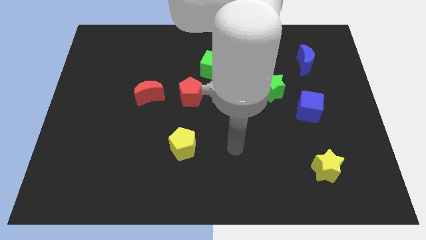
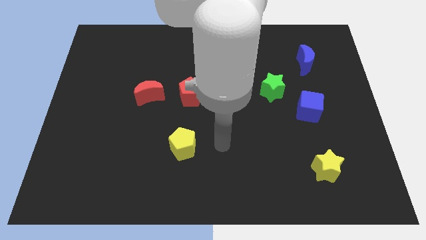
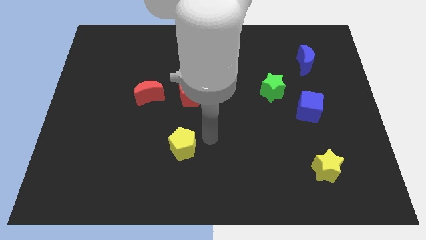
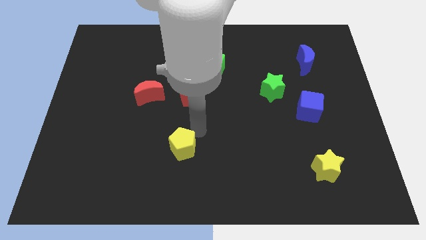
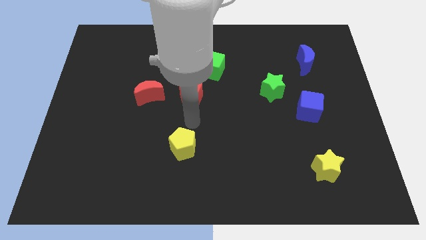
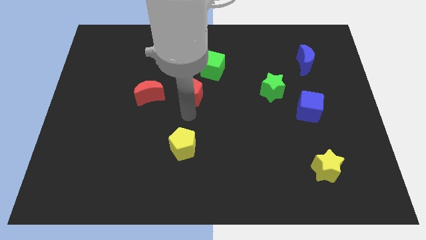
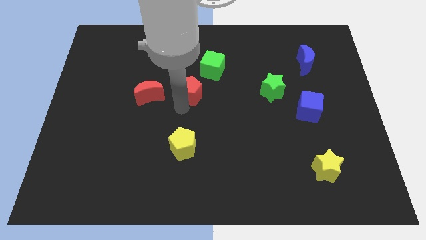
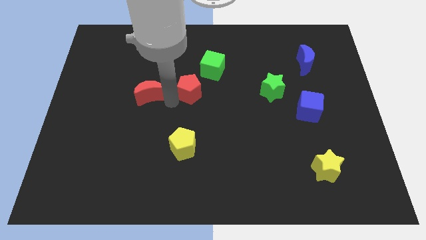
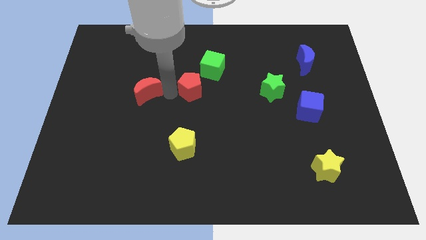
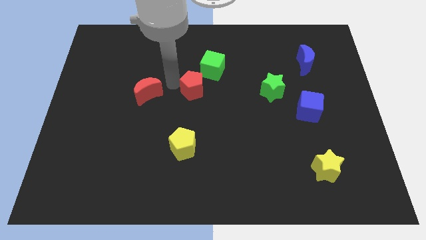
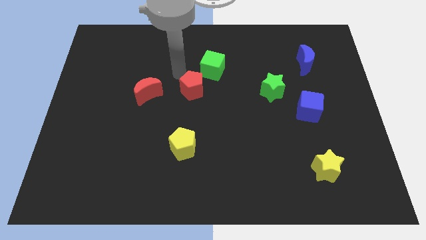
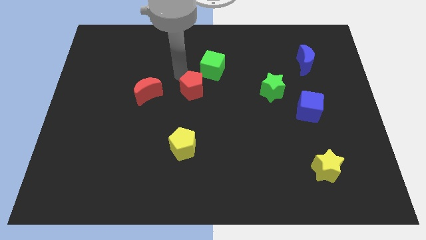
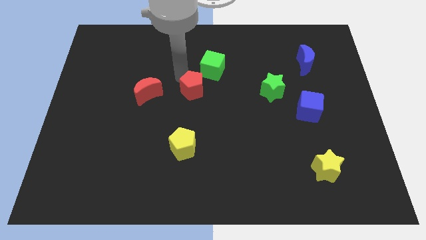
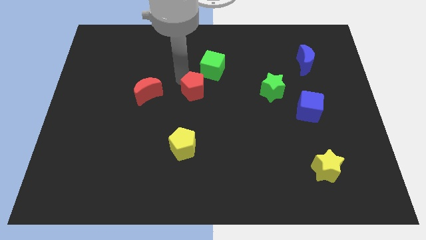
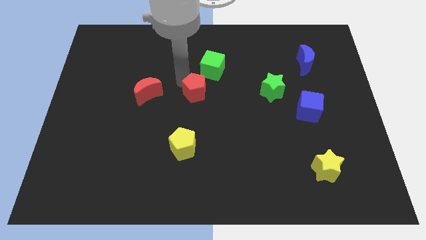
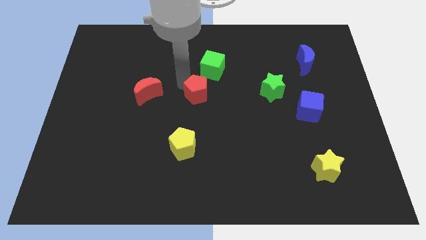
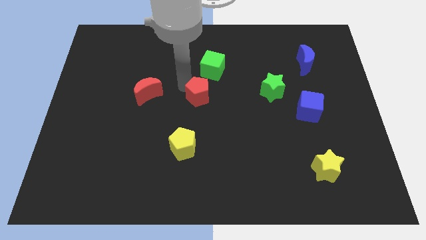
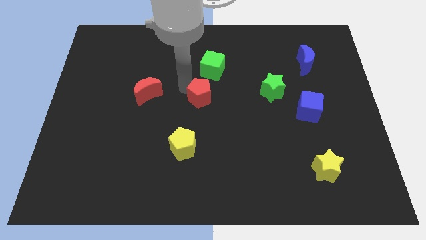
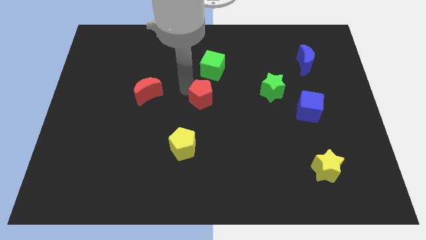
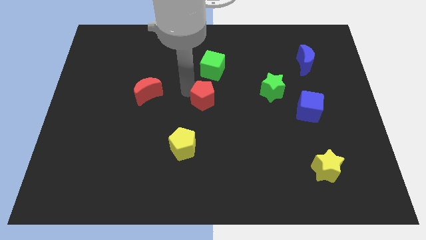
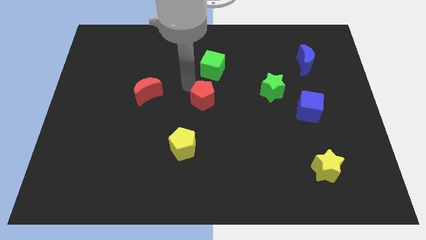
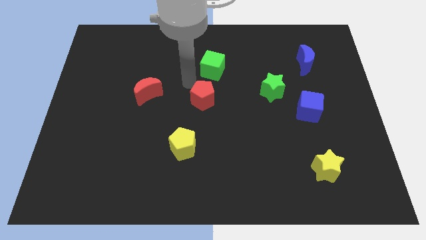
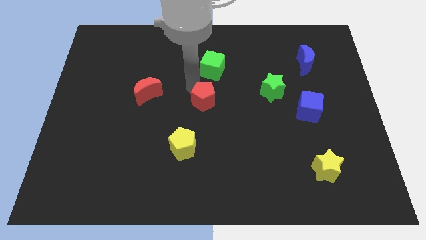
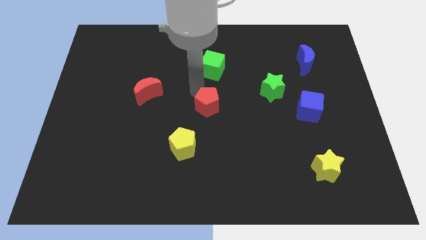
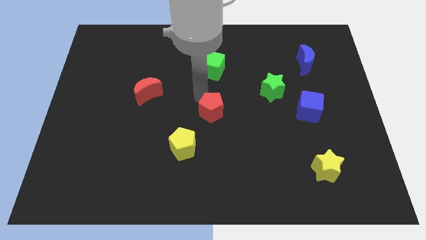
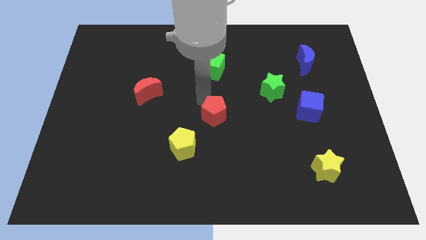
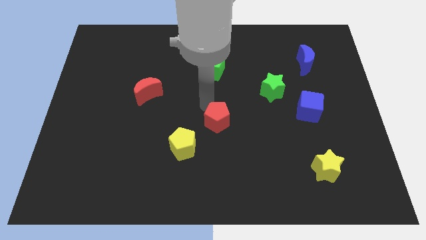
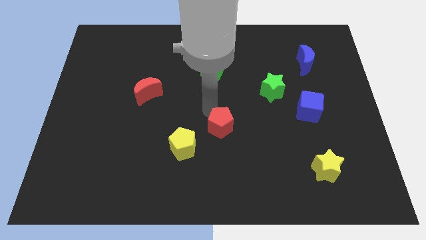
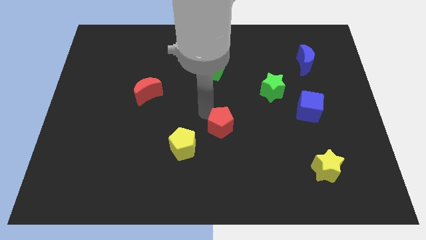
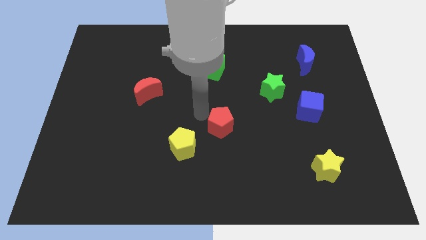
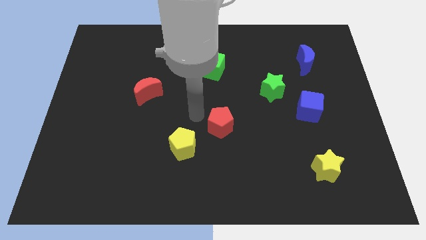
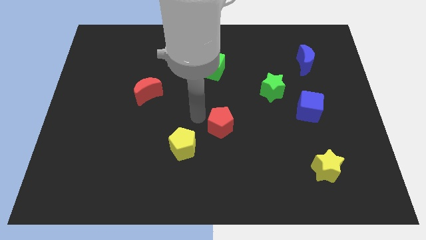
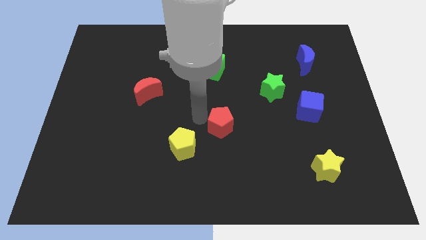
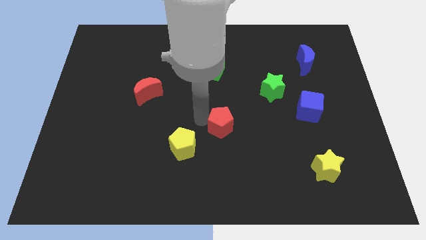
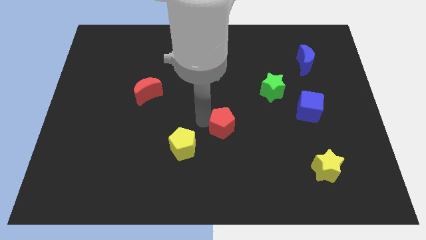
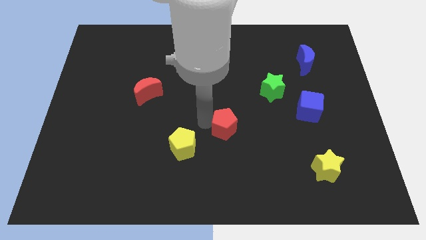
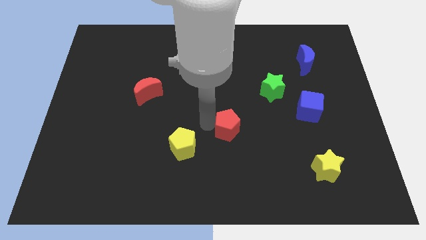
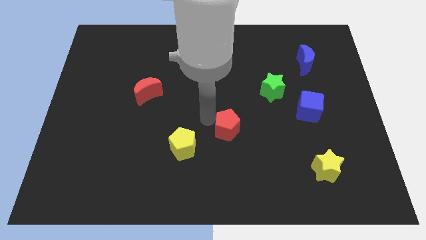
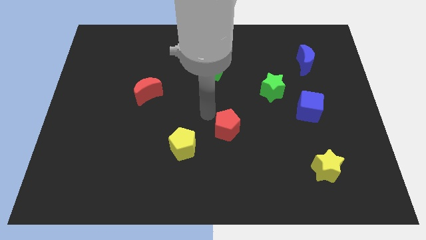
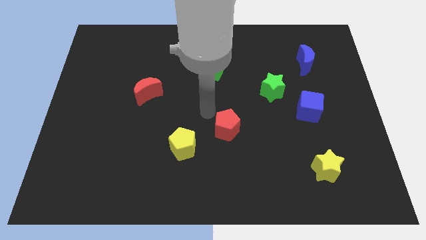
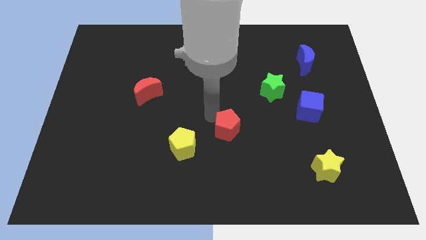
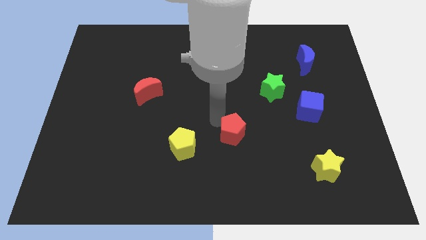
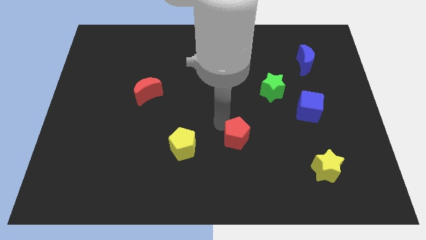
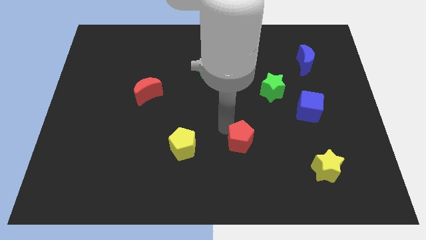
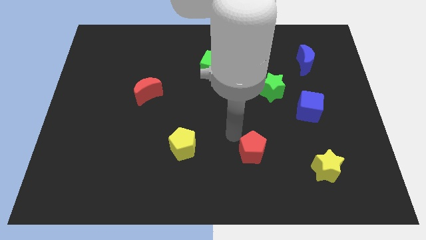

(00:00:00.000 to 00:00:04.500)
push the red pentagon downwards and to the right diagonally

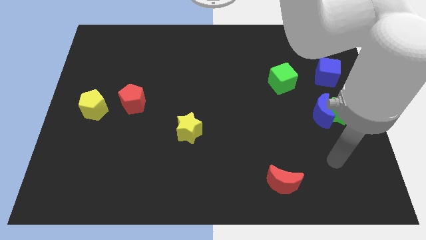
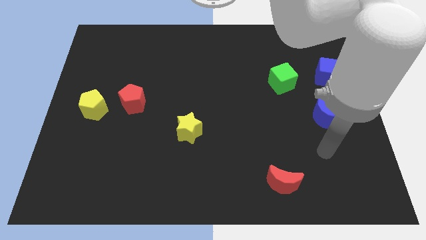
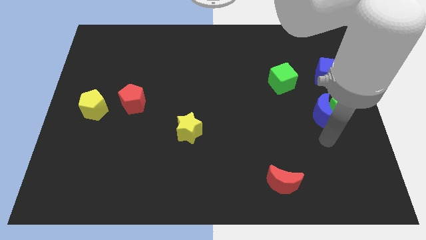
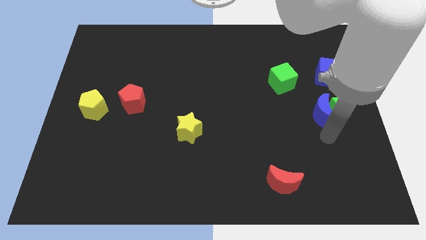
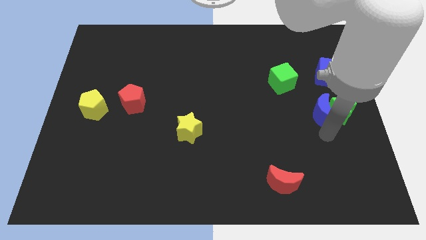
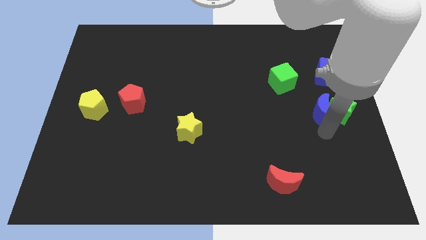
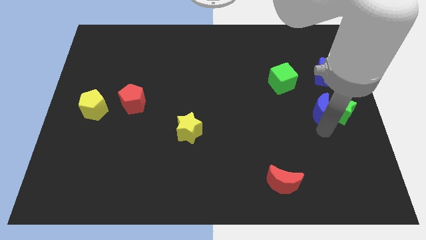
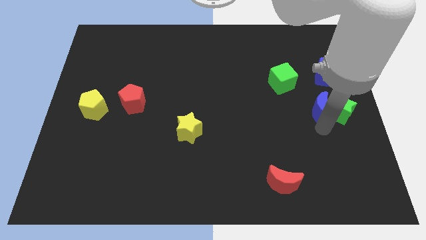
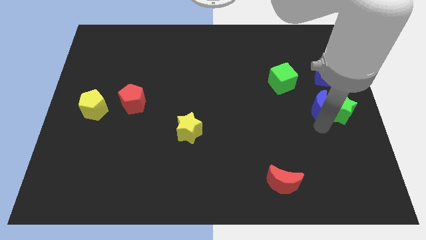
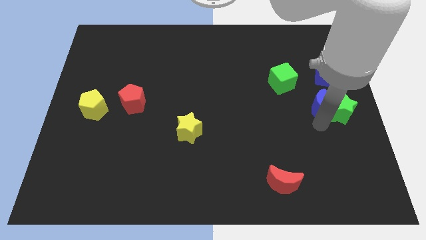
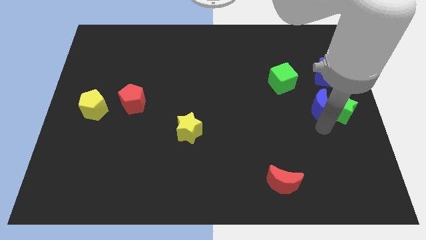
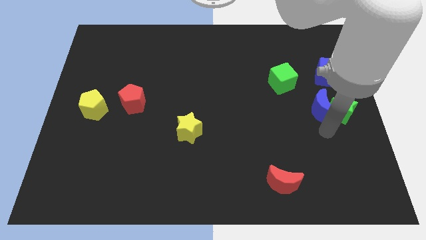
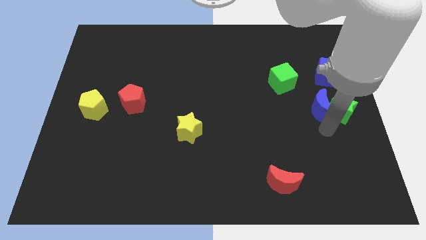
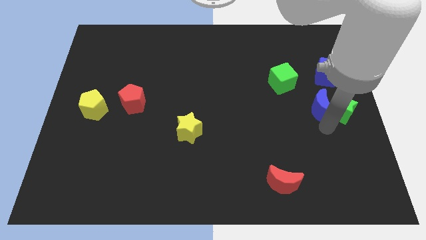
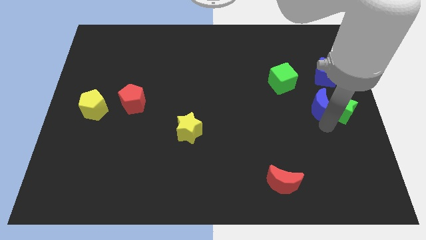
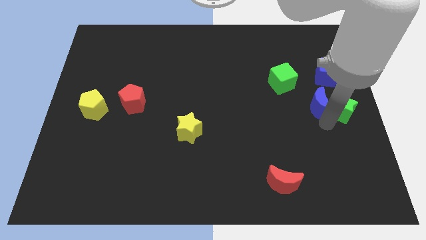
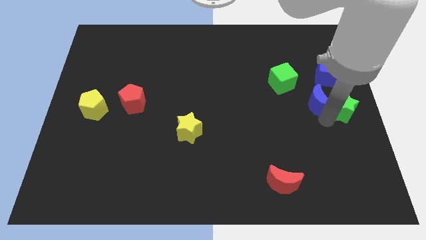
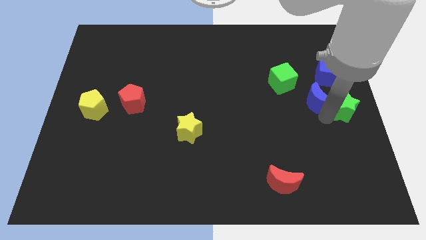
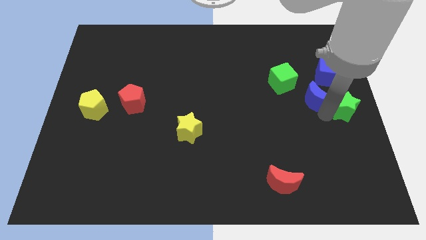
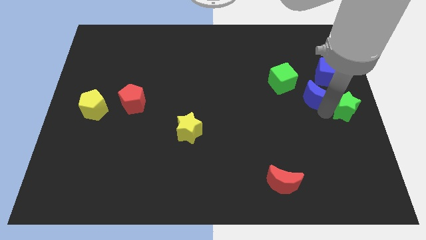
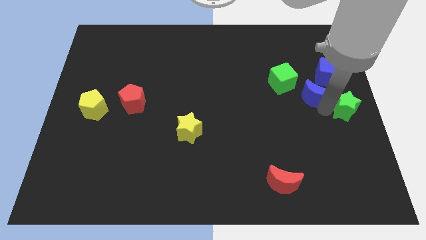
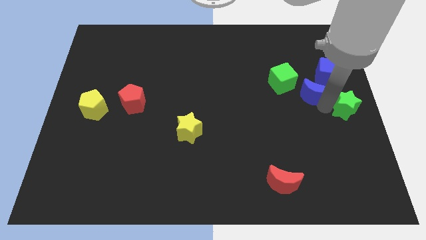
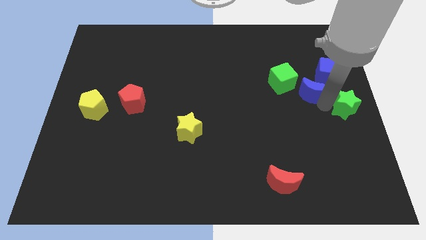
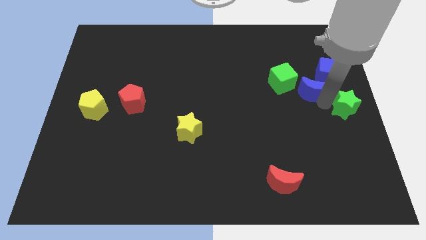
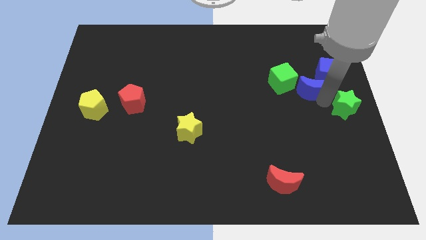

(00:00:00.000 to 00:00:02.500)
slightly slide the blue moon upwards

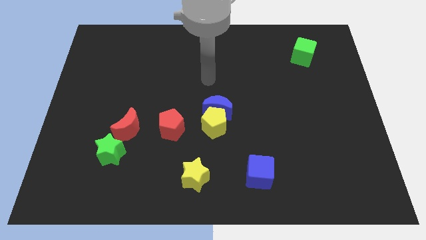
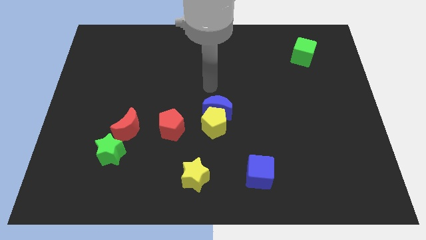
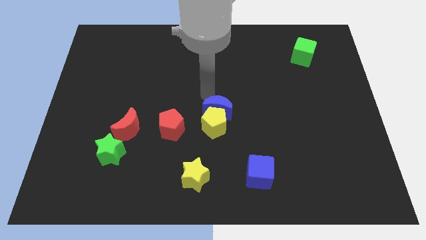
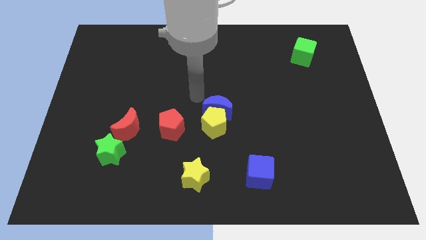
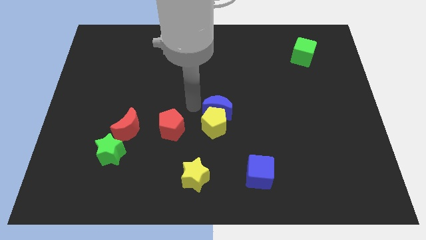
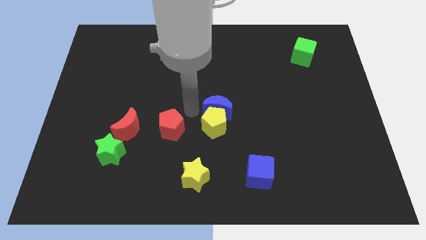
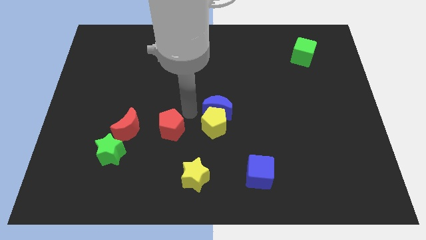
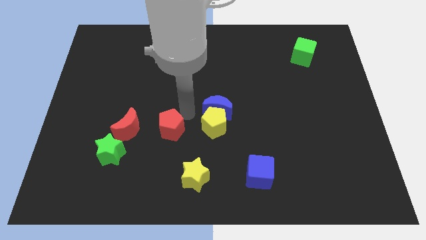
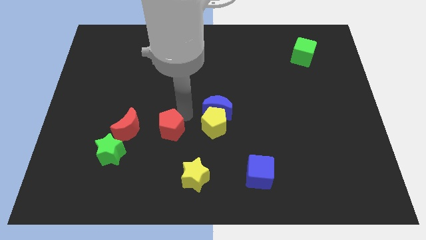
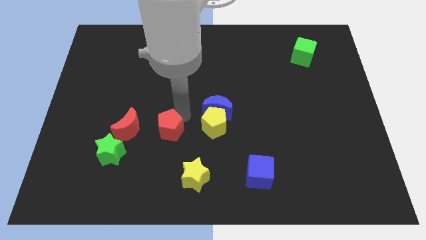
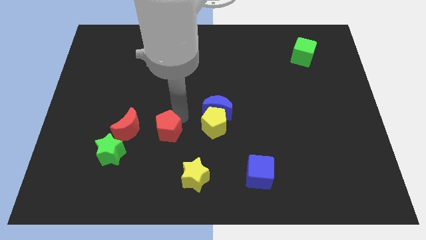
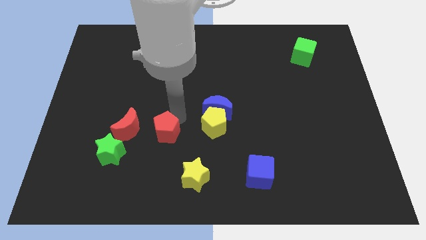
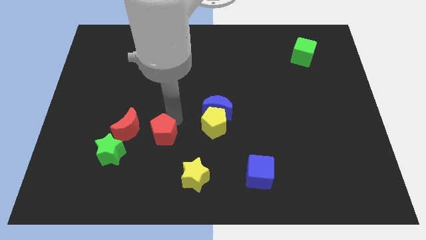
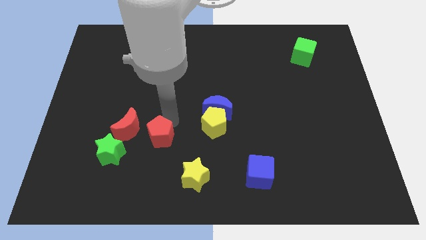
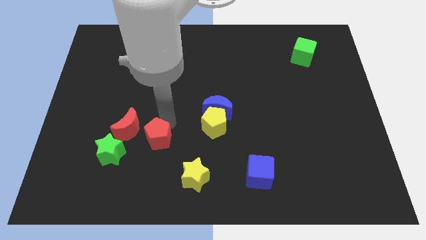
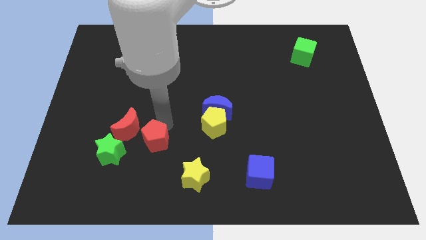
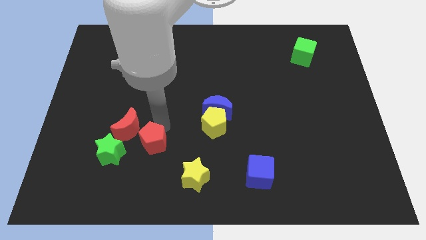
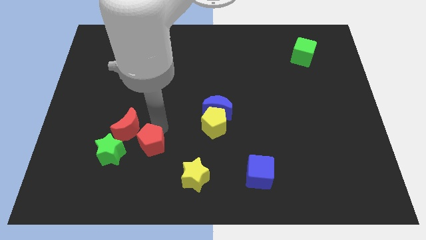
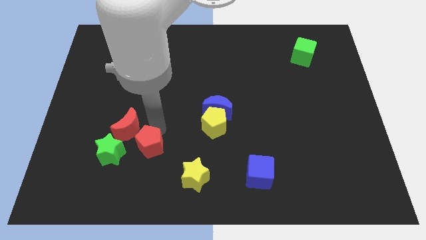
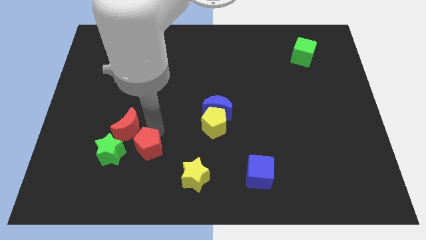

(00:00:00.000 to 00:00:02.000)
move the red pentagon downwards and to the left a little bit
